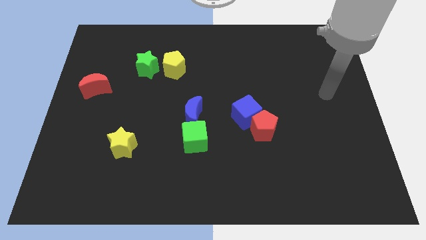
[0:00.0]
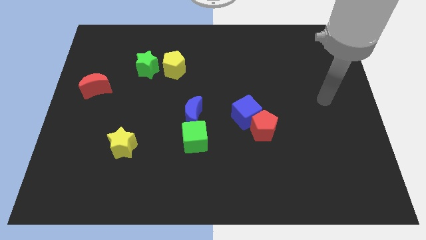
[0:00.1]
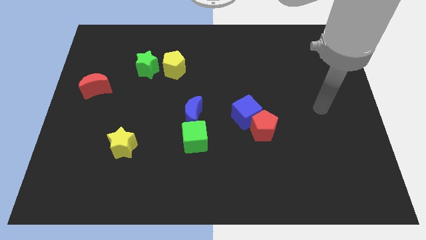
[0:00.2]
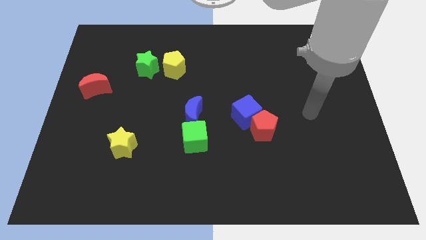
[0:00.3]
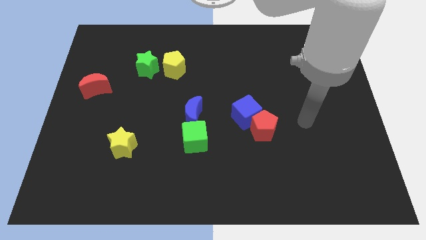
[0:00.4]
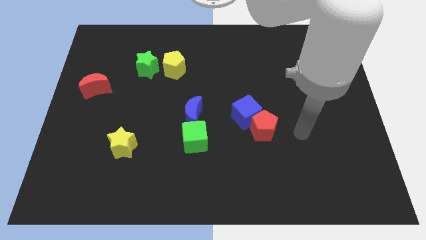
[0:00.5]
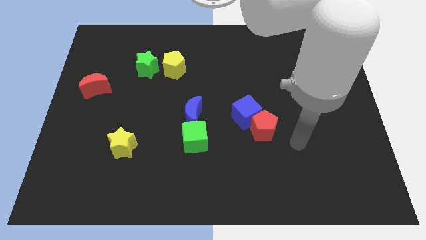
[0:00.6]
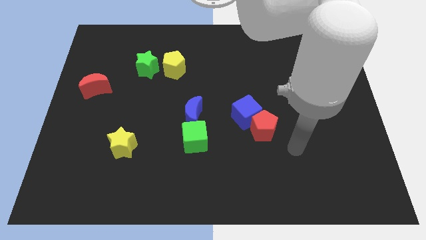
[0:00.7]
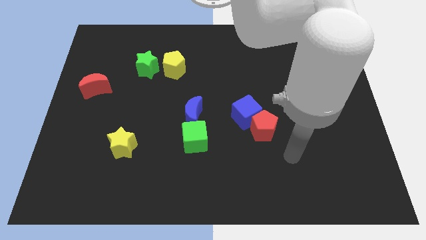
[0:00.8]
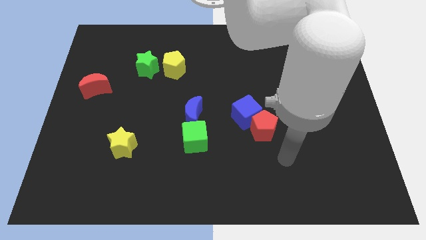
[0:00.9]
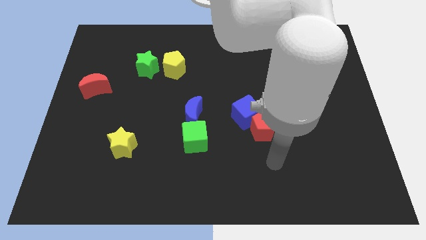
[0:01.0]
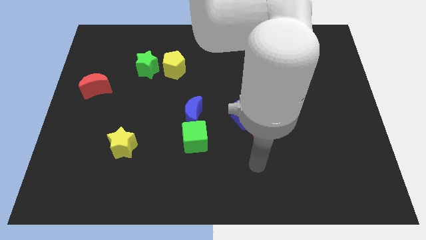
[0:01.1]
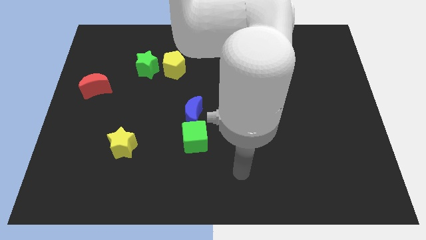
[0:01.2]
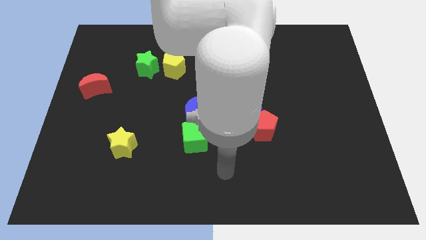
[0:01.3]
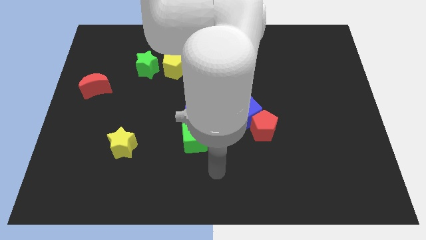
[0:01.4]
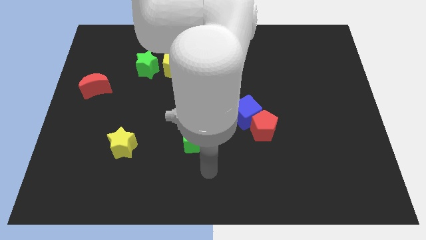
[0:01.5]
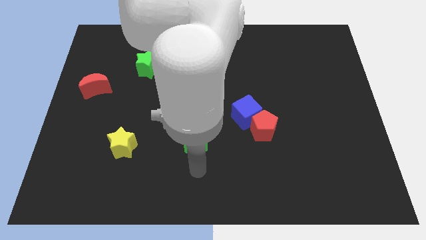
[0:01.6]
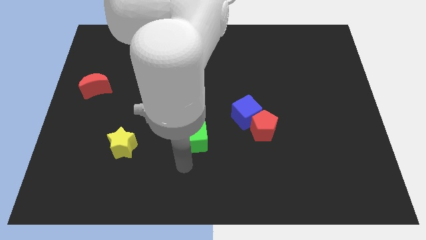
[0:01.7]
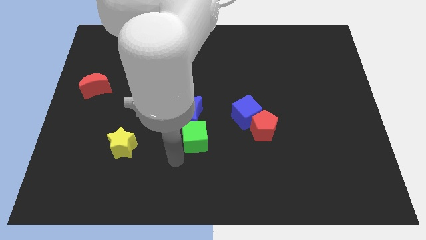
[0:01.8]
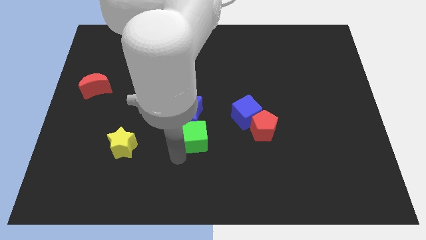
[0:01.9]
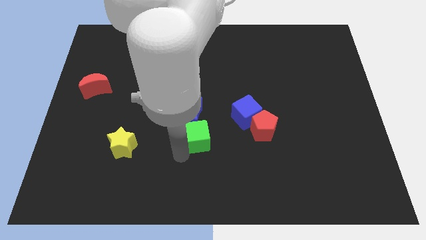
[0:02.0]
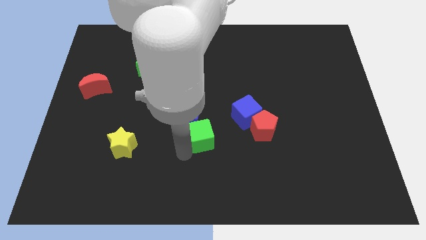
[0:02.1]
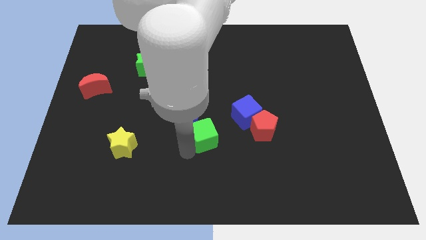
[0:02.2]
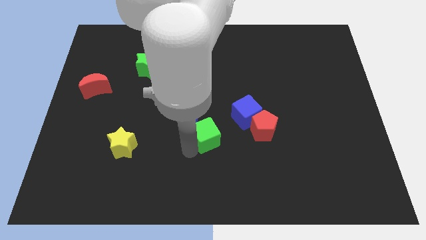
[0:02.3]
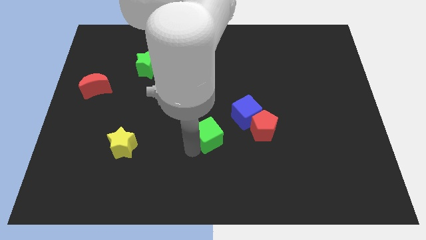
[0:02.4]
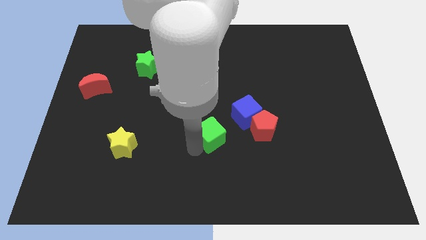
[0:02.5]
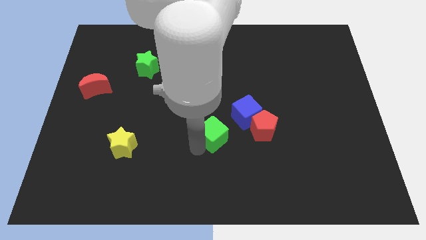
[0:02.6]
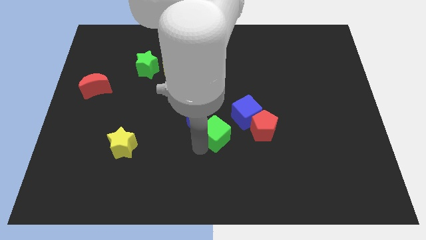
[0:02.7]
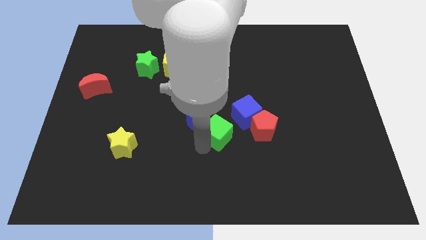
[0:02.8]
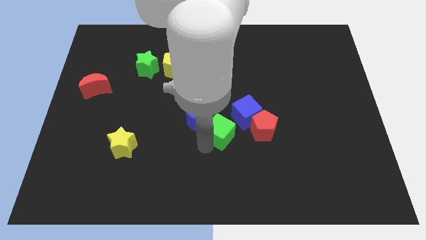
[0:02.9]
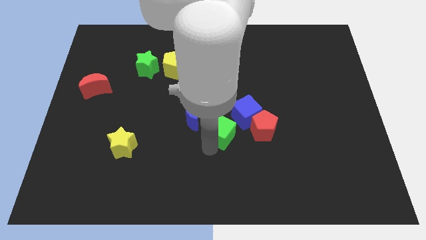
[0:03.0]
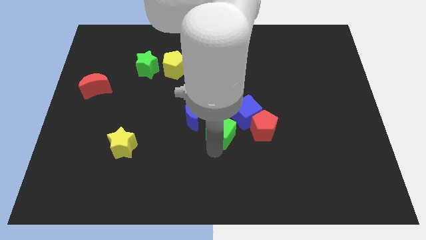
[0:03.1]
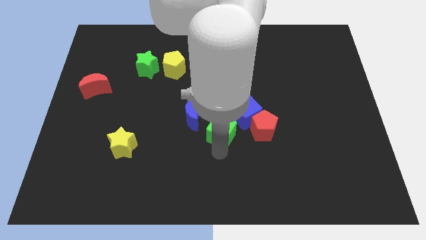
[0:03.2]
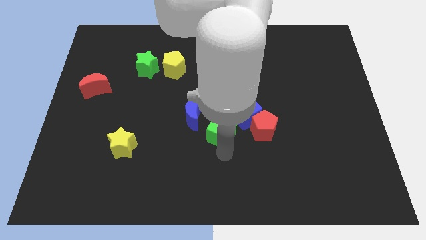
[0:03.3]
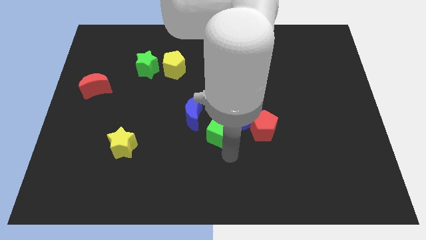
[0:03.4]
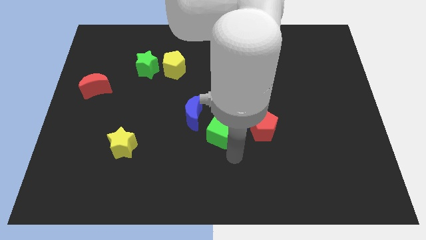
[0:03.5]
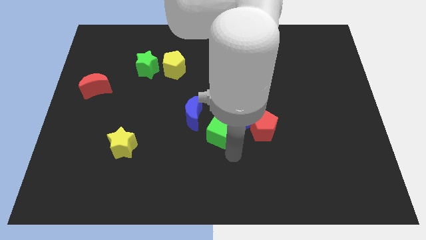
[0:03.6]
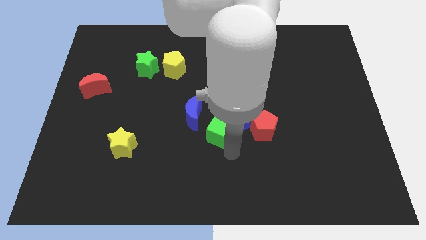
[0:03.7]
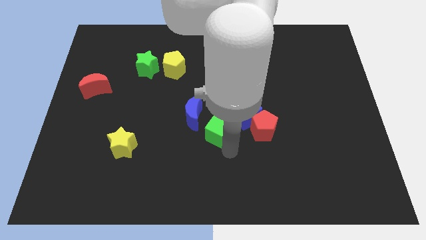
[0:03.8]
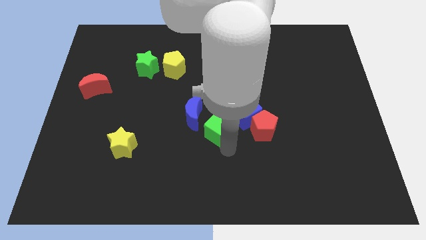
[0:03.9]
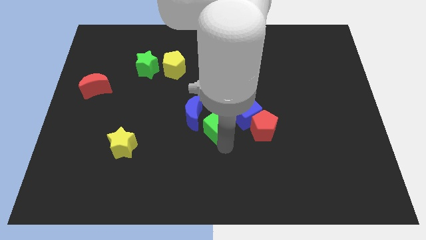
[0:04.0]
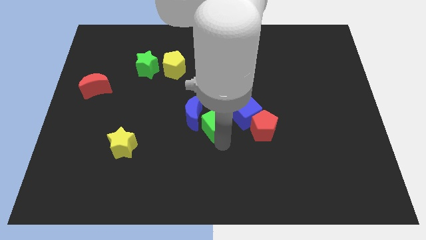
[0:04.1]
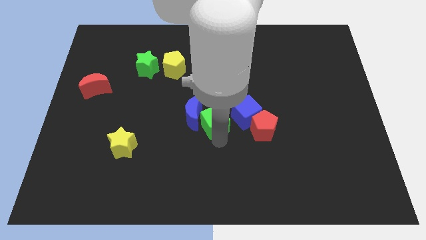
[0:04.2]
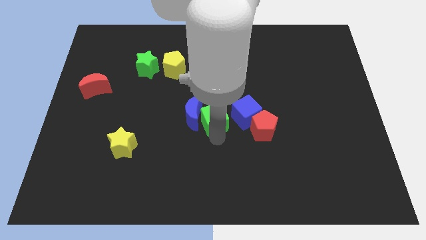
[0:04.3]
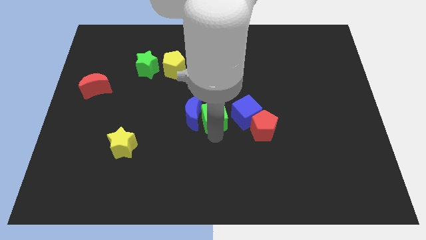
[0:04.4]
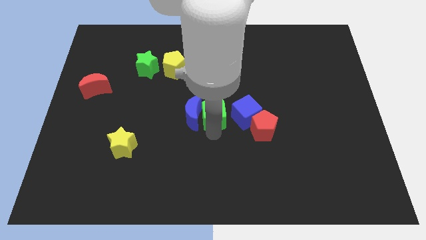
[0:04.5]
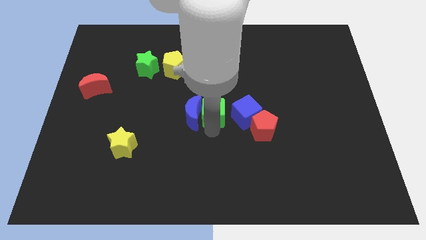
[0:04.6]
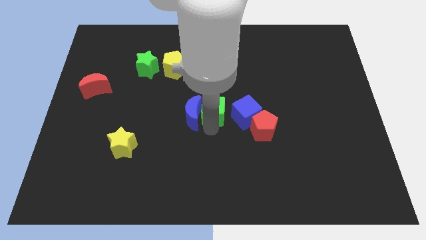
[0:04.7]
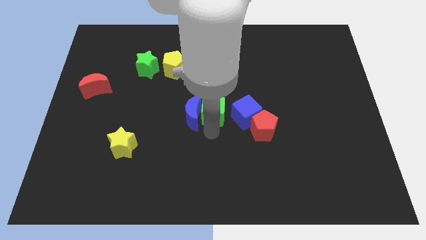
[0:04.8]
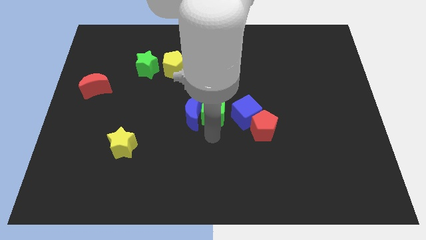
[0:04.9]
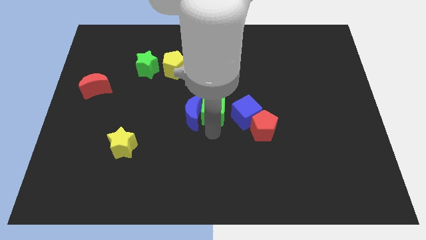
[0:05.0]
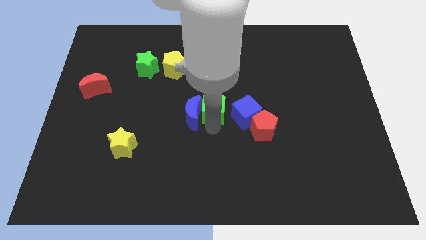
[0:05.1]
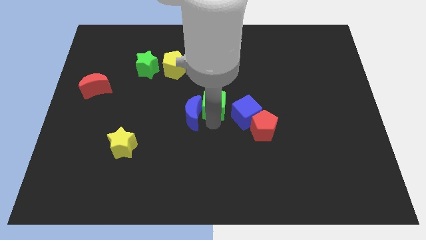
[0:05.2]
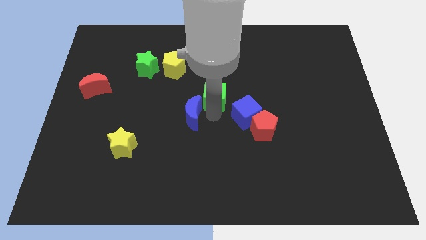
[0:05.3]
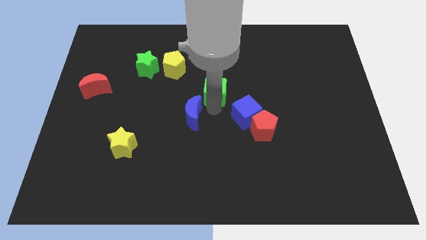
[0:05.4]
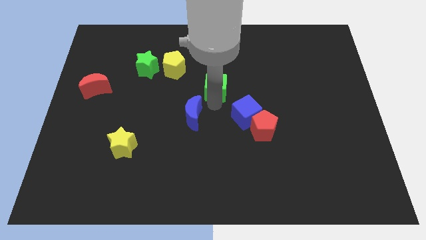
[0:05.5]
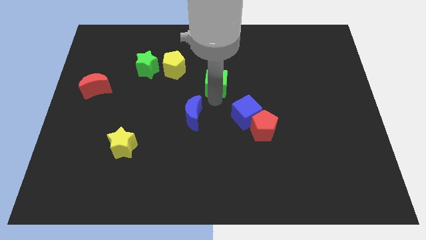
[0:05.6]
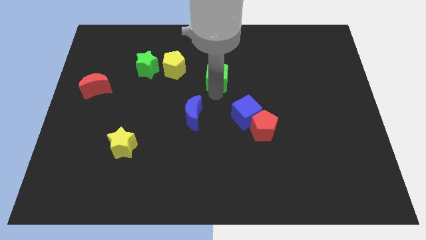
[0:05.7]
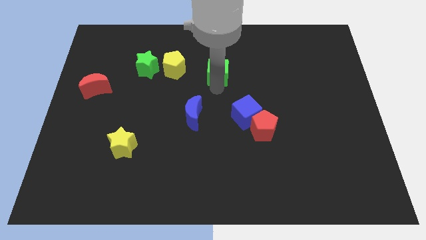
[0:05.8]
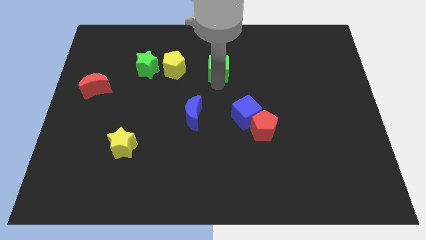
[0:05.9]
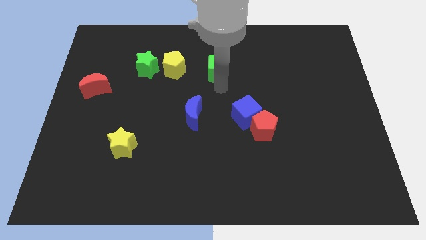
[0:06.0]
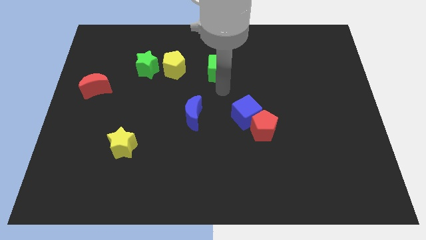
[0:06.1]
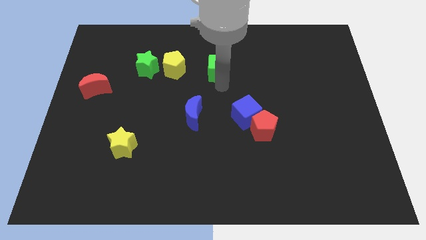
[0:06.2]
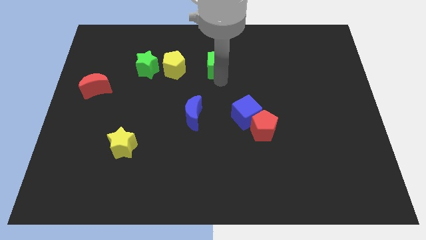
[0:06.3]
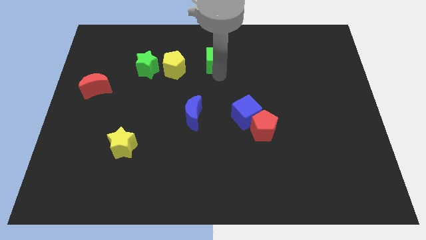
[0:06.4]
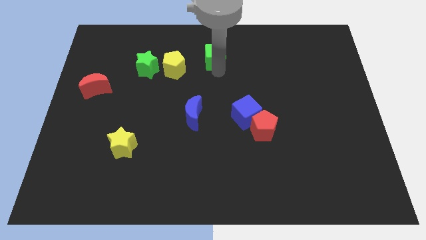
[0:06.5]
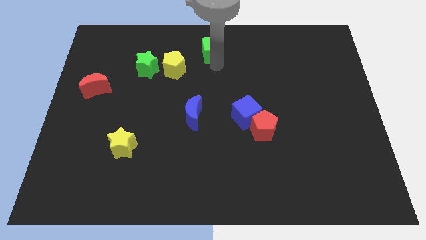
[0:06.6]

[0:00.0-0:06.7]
put the green cube to the top side

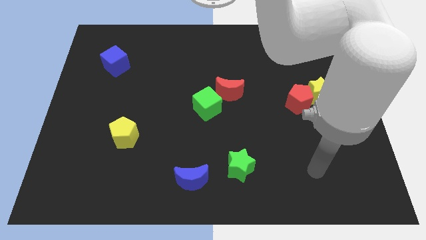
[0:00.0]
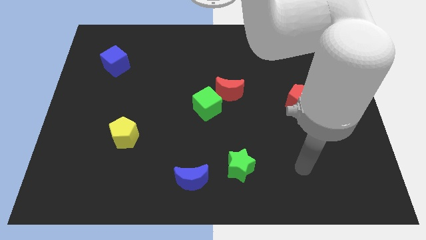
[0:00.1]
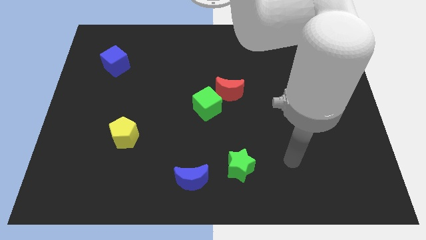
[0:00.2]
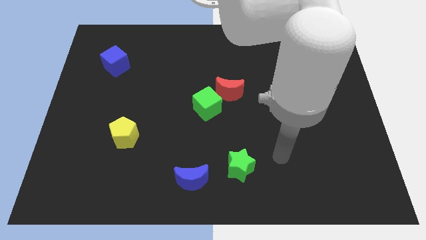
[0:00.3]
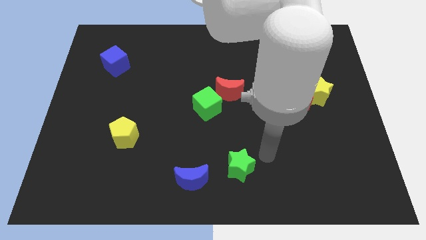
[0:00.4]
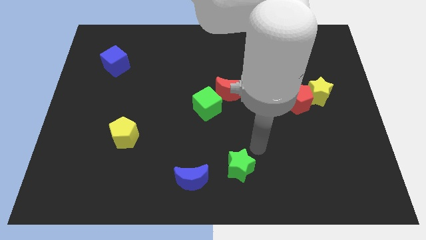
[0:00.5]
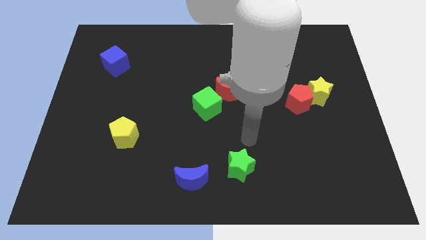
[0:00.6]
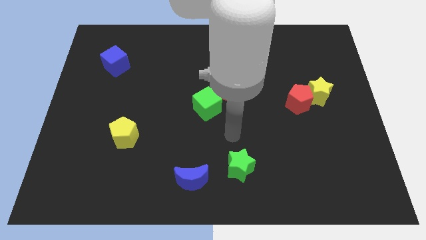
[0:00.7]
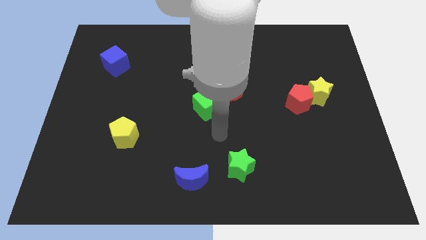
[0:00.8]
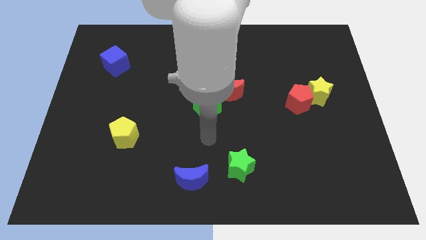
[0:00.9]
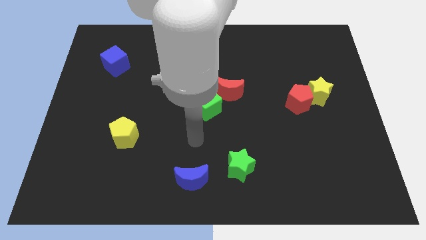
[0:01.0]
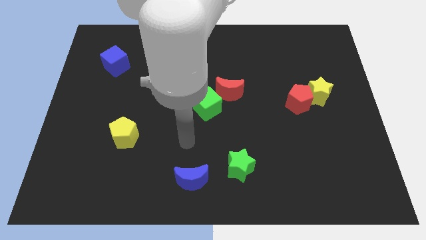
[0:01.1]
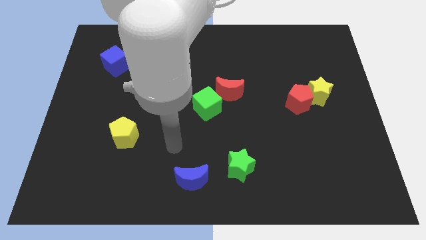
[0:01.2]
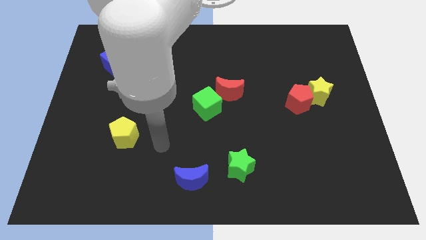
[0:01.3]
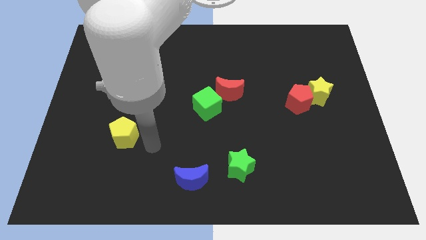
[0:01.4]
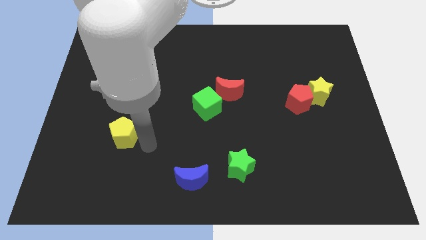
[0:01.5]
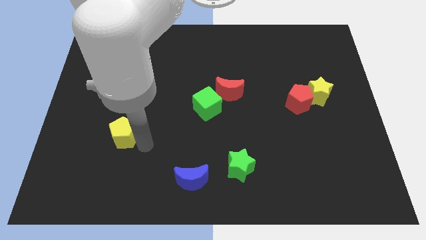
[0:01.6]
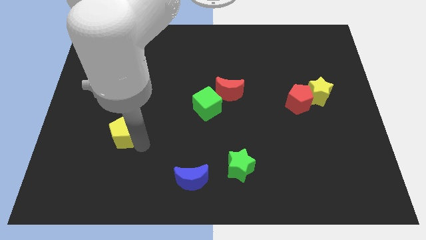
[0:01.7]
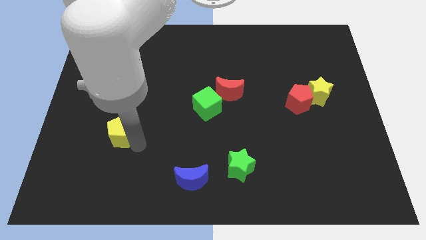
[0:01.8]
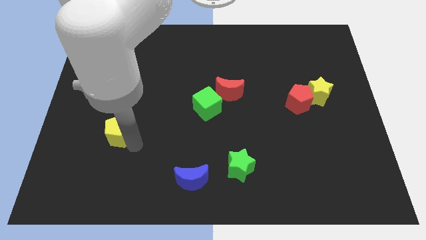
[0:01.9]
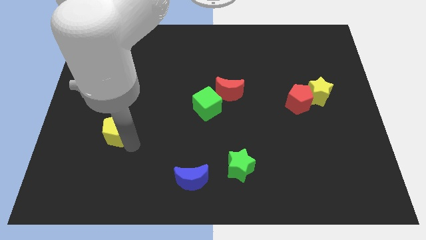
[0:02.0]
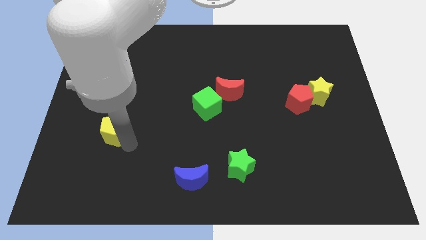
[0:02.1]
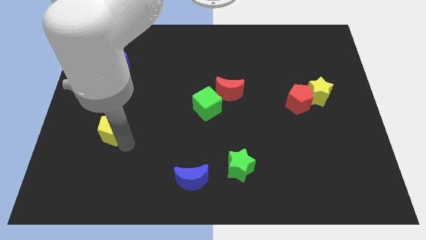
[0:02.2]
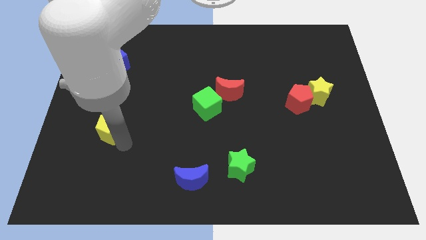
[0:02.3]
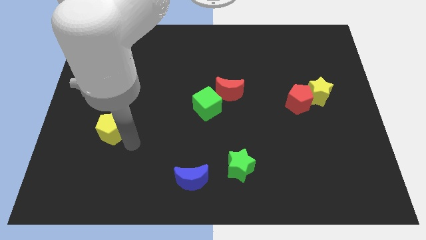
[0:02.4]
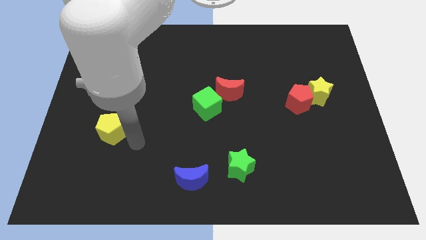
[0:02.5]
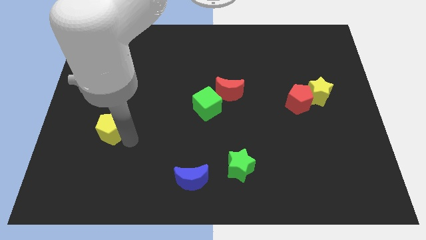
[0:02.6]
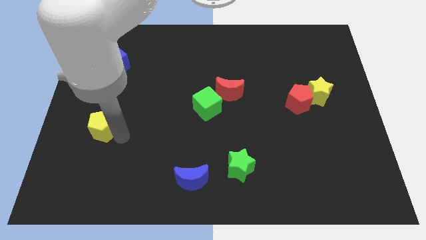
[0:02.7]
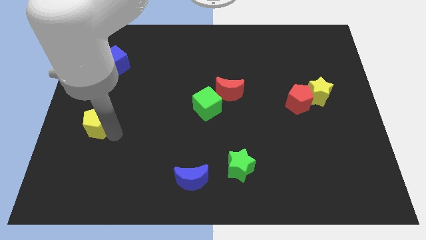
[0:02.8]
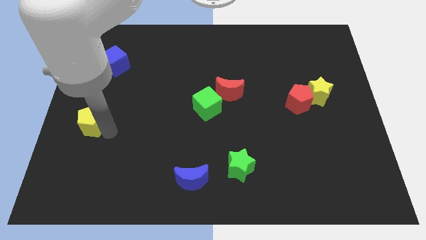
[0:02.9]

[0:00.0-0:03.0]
move the yellow pentagon to the center left
